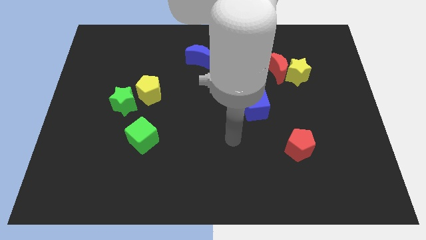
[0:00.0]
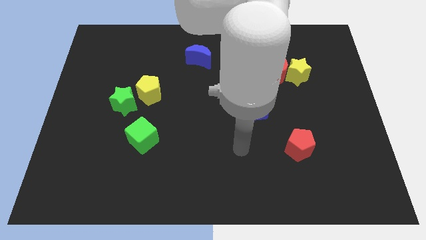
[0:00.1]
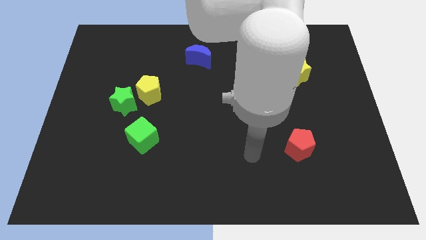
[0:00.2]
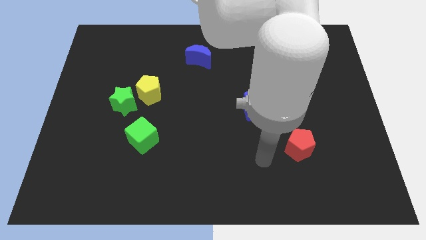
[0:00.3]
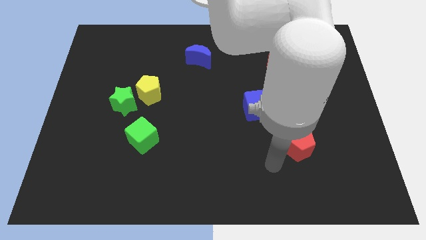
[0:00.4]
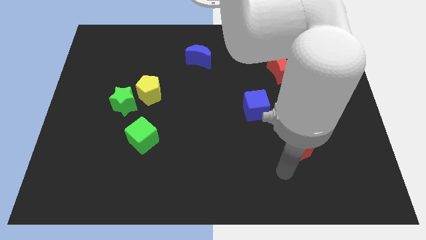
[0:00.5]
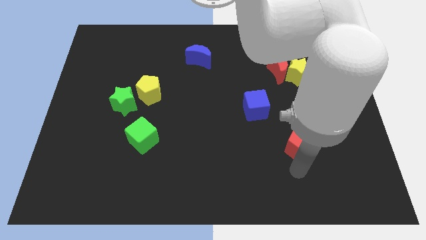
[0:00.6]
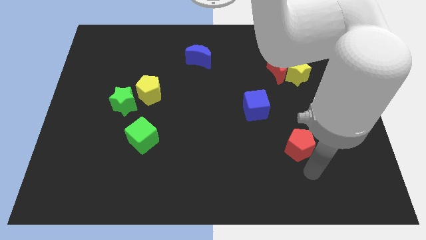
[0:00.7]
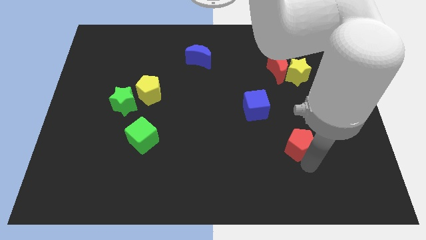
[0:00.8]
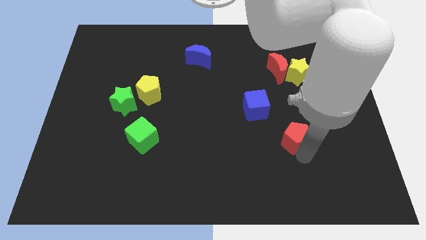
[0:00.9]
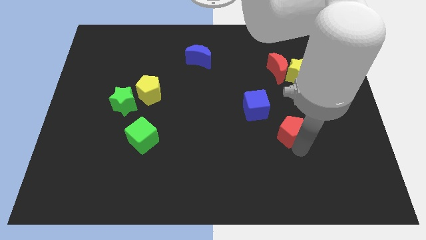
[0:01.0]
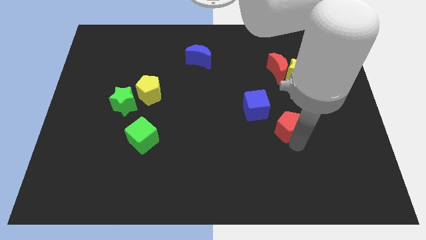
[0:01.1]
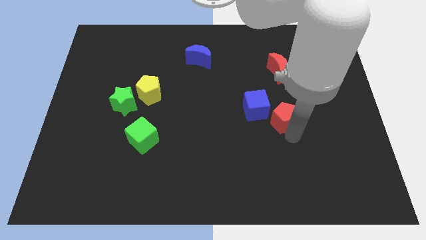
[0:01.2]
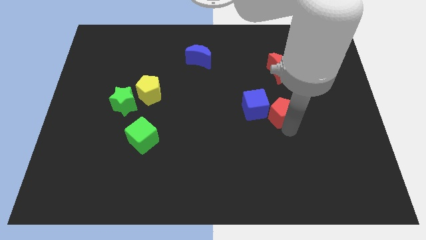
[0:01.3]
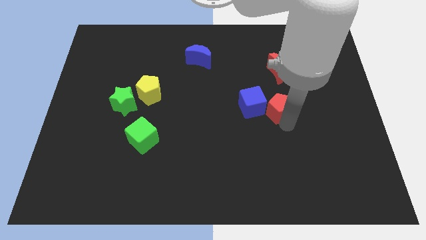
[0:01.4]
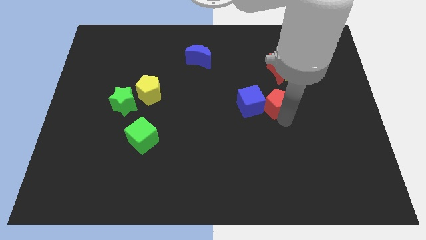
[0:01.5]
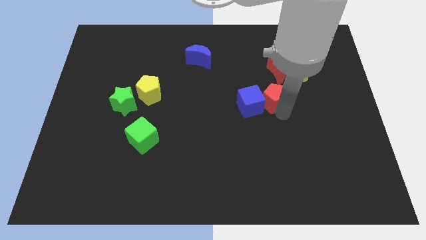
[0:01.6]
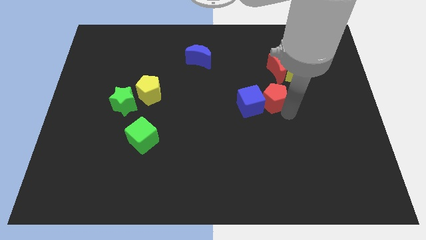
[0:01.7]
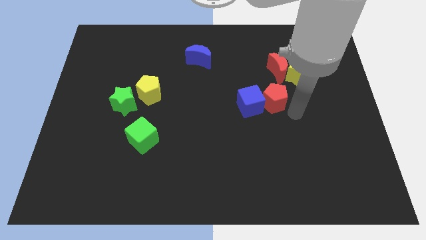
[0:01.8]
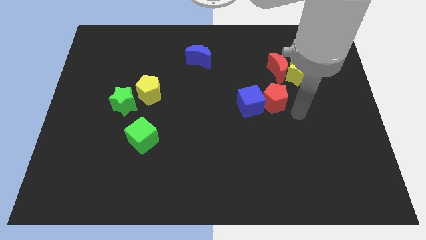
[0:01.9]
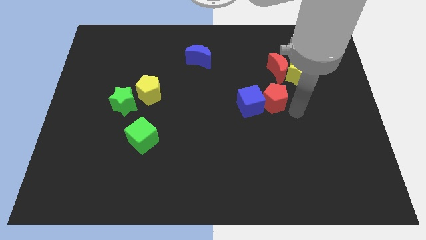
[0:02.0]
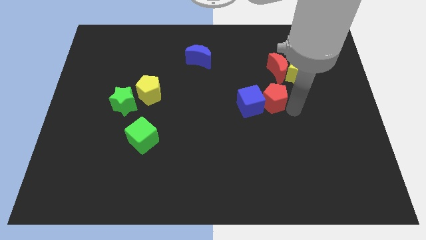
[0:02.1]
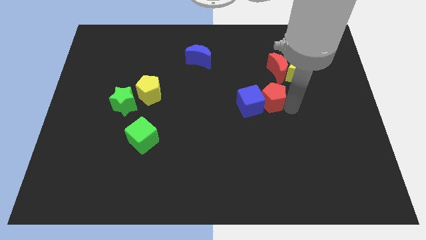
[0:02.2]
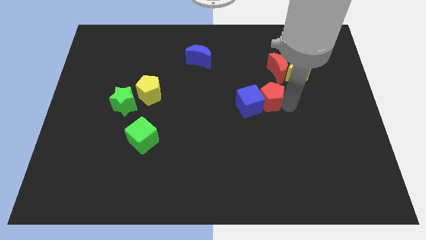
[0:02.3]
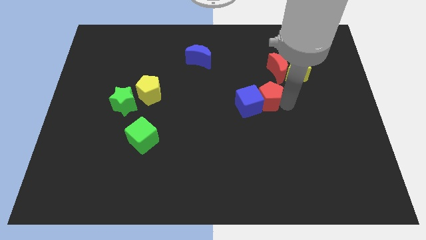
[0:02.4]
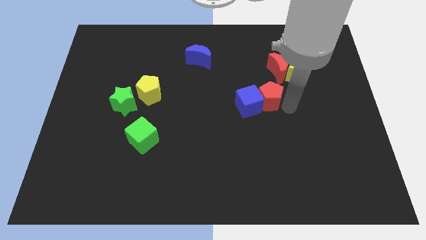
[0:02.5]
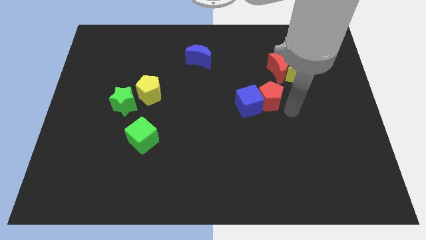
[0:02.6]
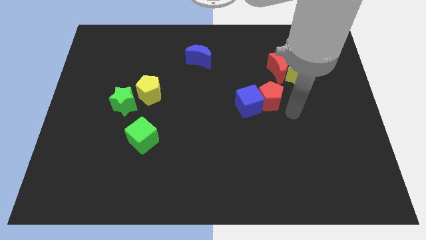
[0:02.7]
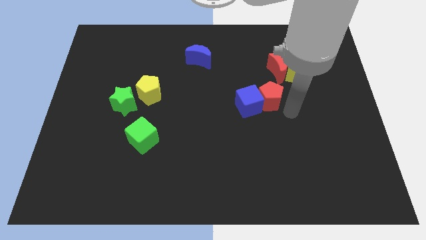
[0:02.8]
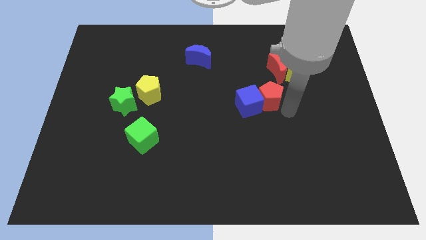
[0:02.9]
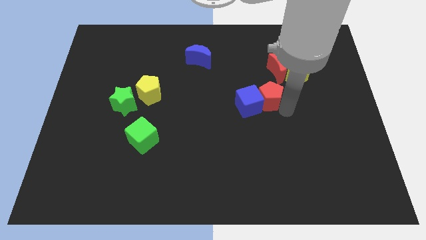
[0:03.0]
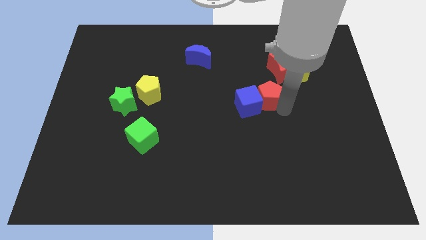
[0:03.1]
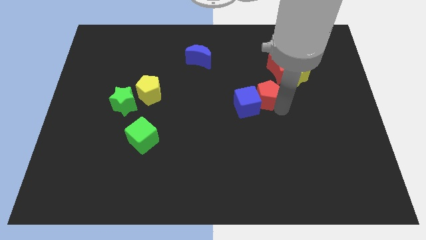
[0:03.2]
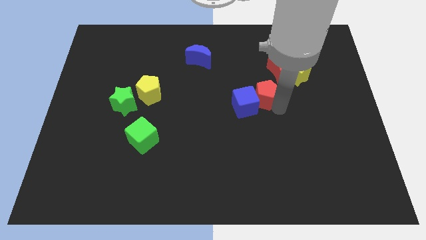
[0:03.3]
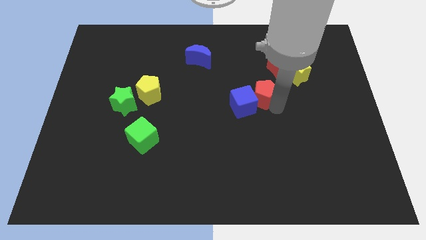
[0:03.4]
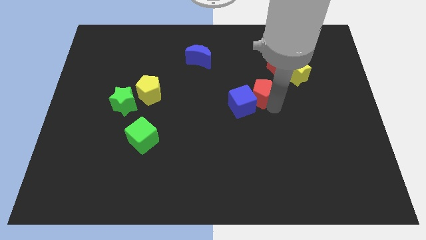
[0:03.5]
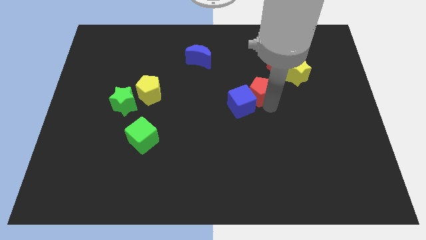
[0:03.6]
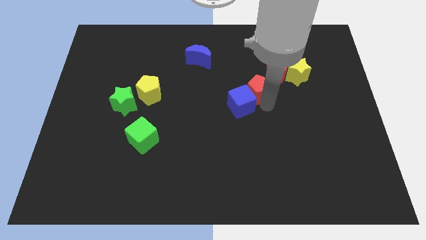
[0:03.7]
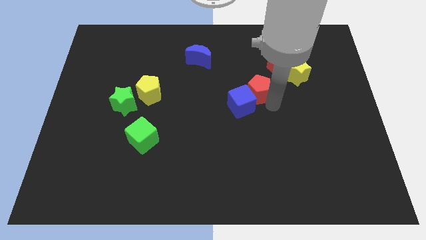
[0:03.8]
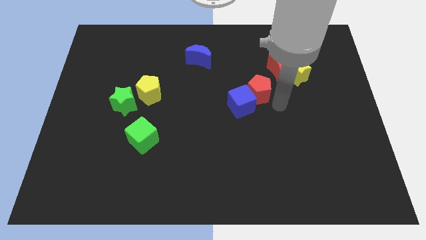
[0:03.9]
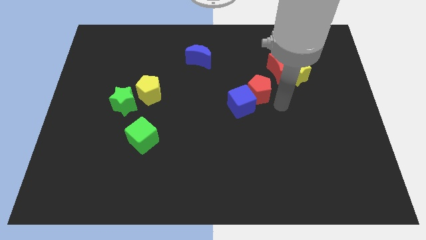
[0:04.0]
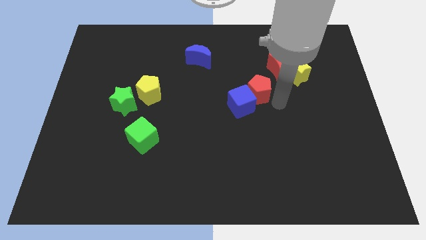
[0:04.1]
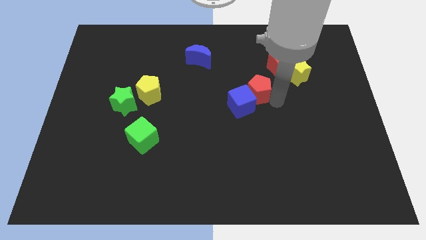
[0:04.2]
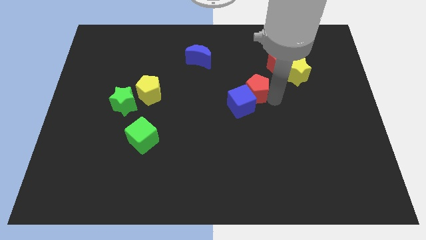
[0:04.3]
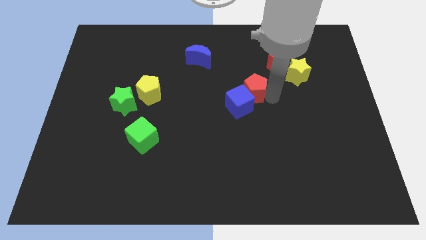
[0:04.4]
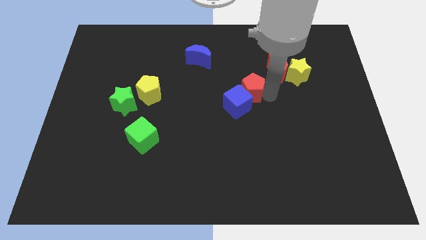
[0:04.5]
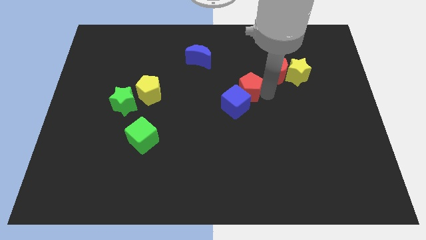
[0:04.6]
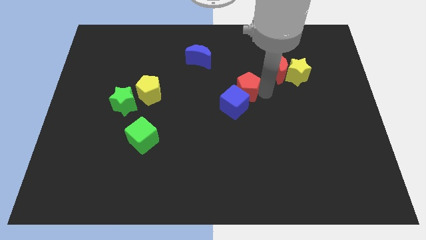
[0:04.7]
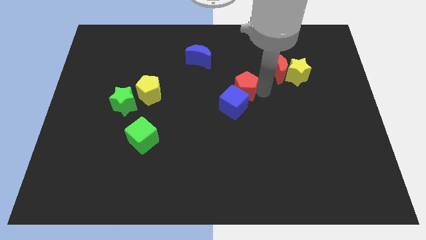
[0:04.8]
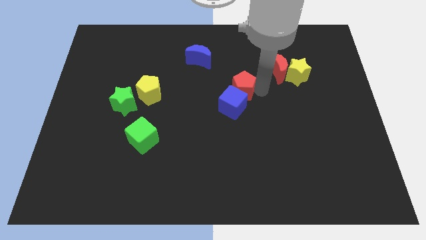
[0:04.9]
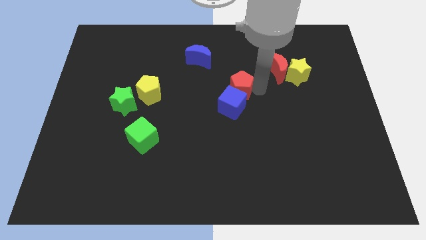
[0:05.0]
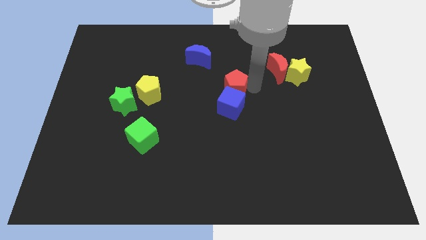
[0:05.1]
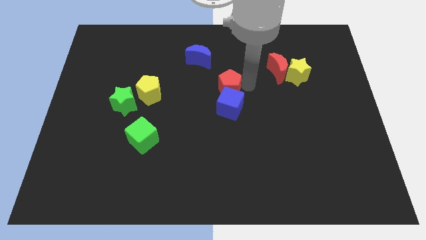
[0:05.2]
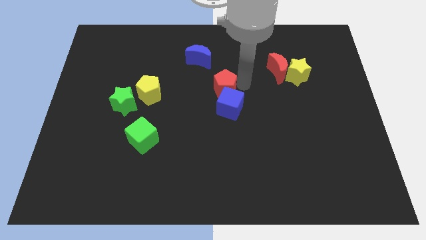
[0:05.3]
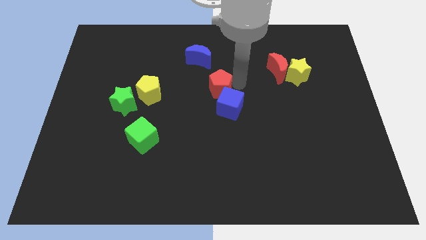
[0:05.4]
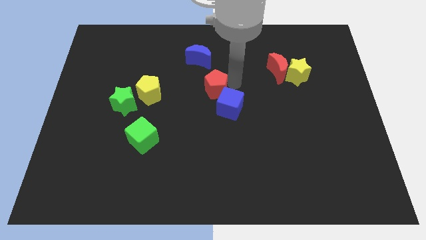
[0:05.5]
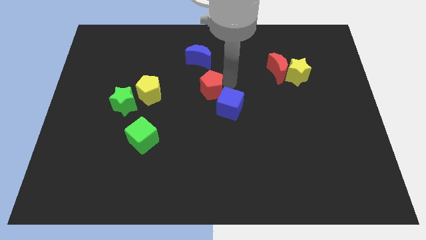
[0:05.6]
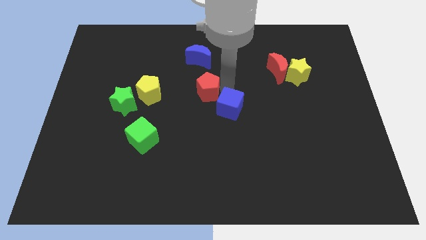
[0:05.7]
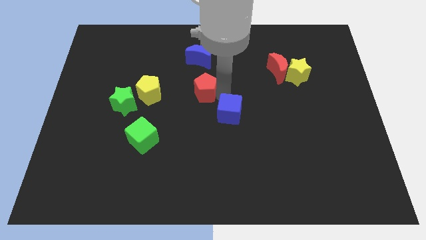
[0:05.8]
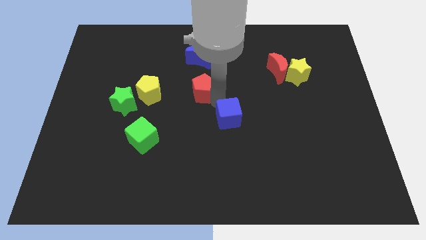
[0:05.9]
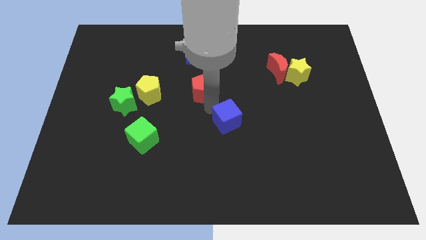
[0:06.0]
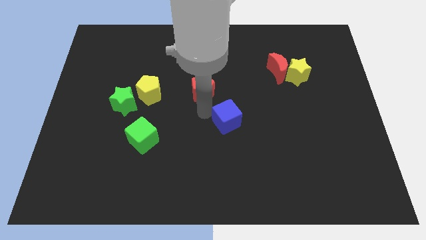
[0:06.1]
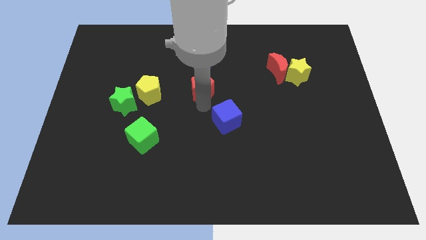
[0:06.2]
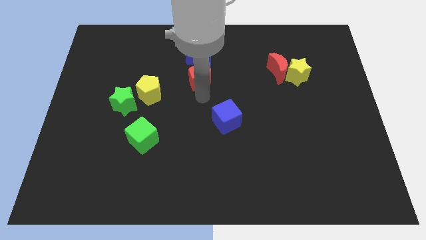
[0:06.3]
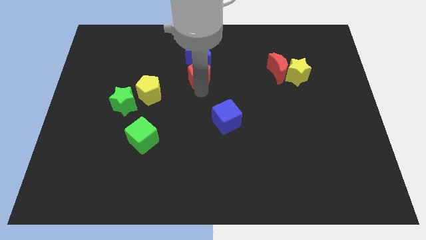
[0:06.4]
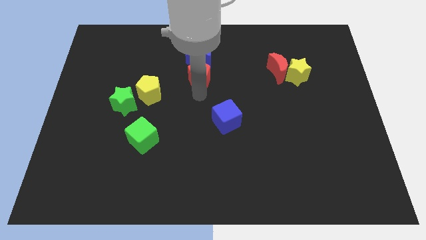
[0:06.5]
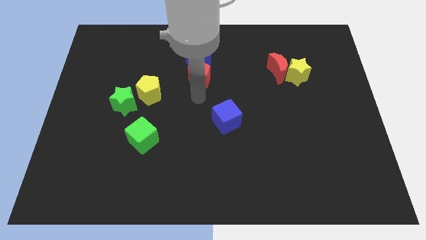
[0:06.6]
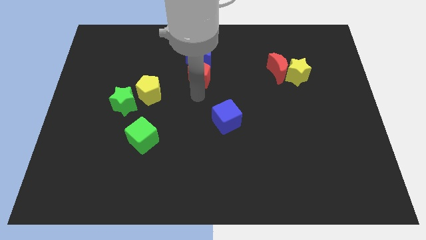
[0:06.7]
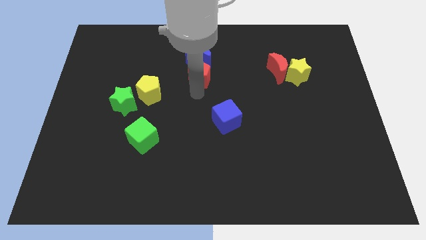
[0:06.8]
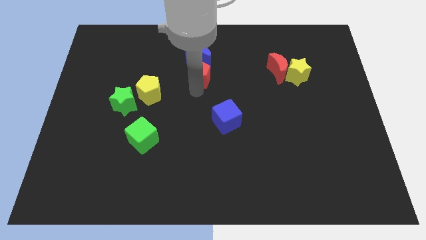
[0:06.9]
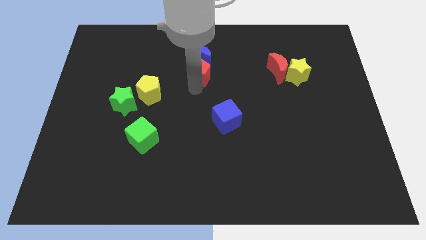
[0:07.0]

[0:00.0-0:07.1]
push the red pentagon to the blue moon
